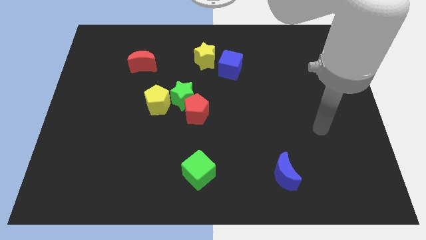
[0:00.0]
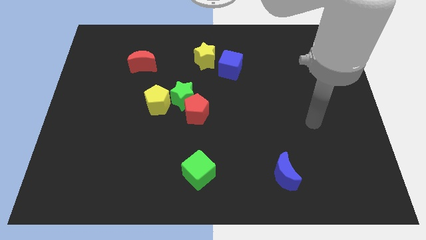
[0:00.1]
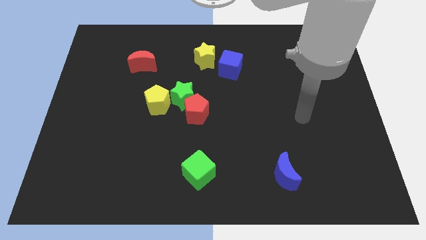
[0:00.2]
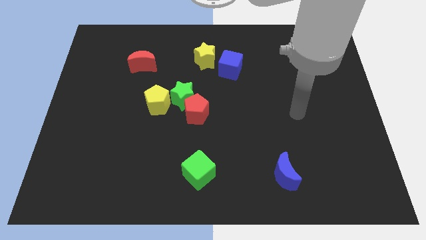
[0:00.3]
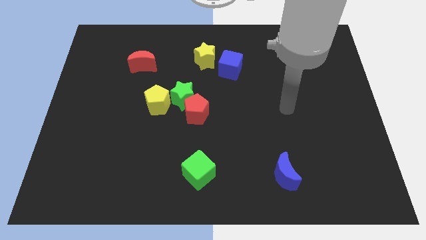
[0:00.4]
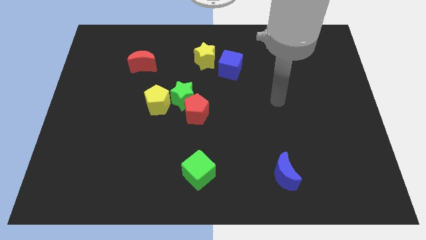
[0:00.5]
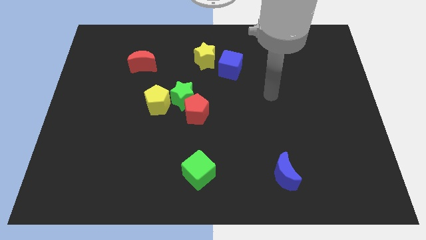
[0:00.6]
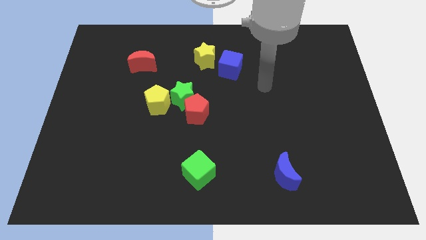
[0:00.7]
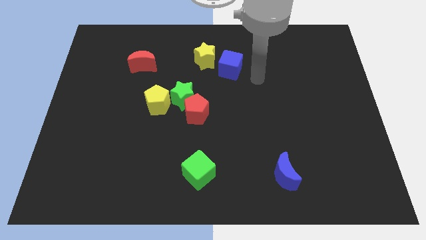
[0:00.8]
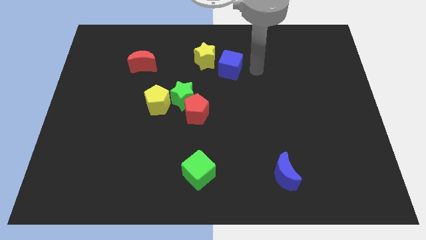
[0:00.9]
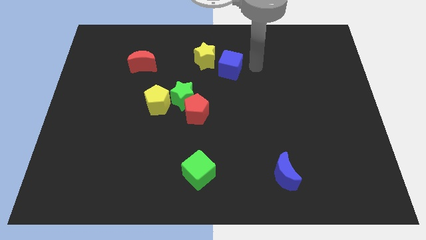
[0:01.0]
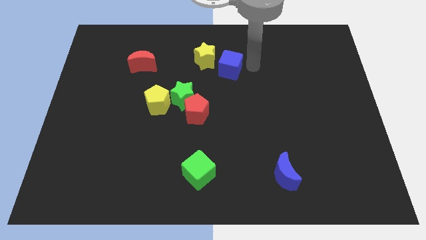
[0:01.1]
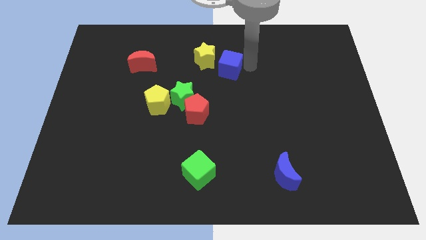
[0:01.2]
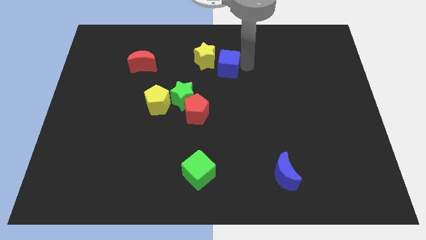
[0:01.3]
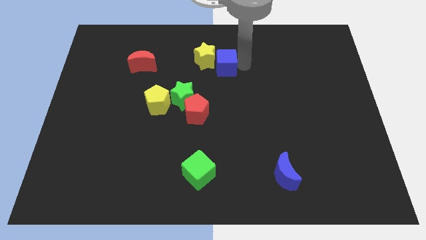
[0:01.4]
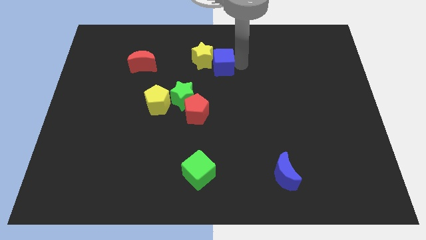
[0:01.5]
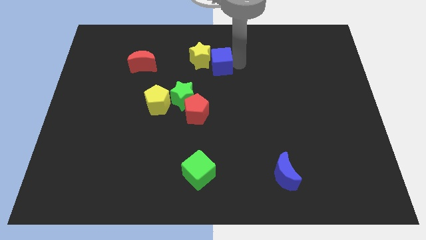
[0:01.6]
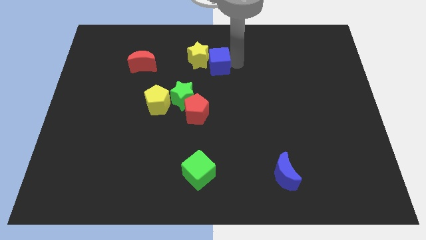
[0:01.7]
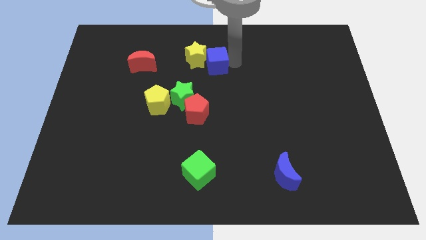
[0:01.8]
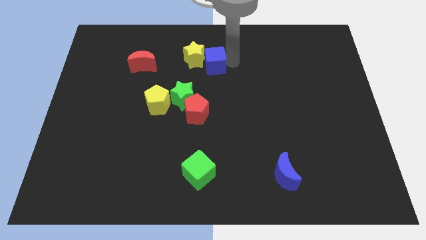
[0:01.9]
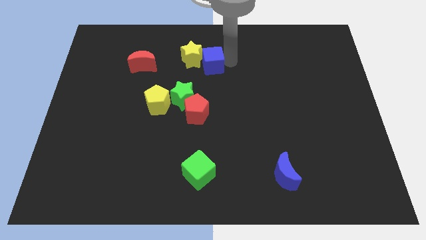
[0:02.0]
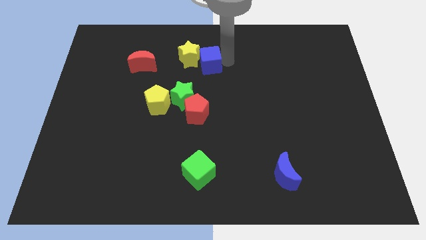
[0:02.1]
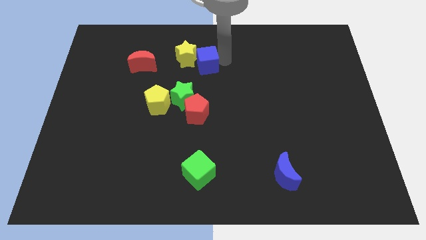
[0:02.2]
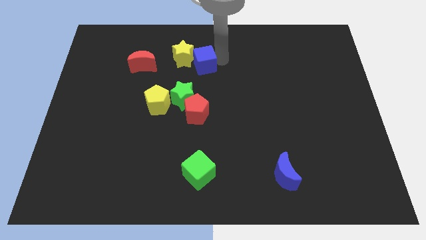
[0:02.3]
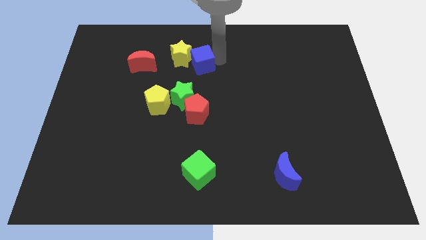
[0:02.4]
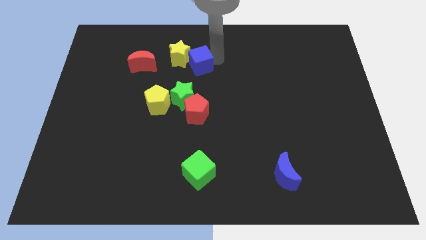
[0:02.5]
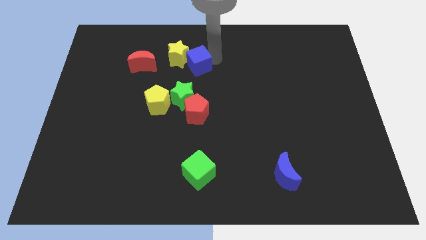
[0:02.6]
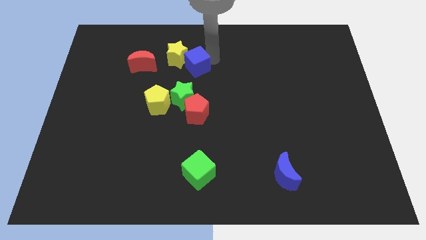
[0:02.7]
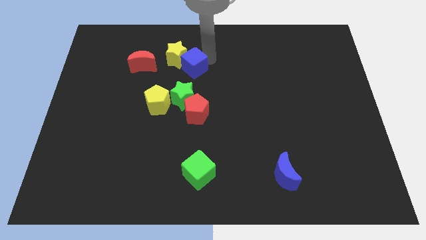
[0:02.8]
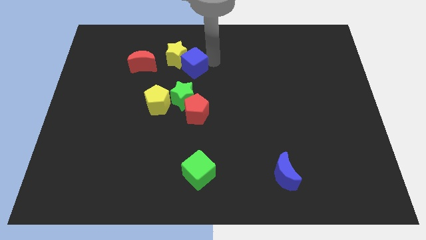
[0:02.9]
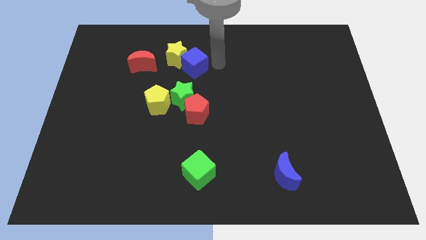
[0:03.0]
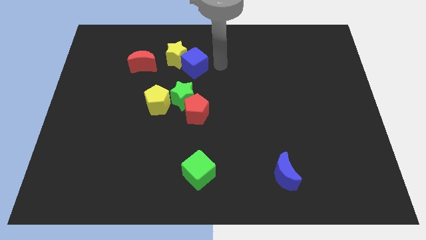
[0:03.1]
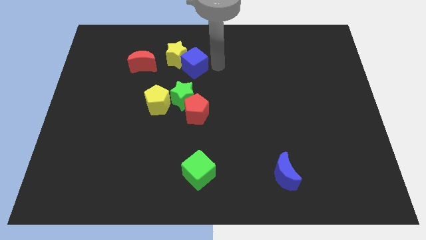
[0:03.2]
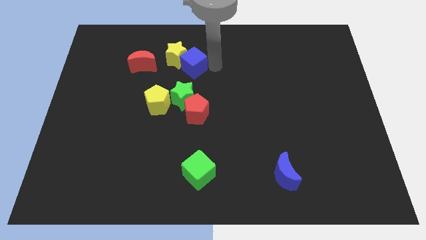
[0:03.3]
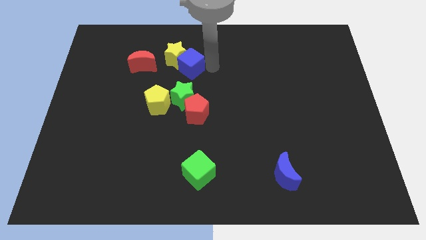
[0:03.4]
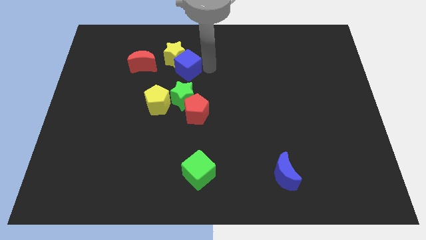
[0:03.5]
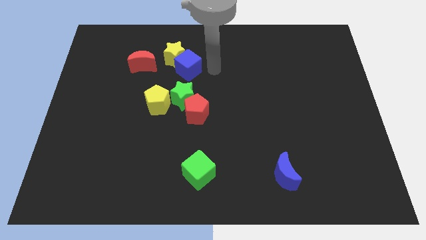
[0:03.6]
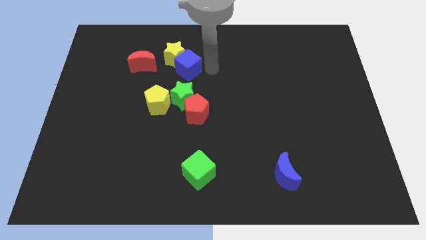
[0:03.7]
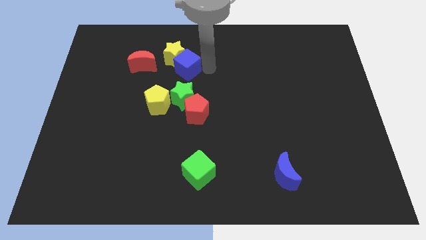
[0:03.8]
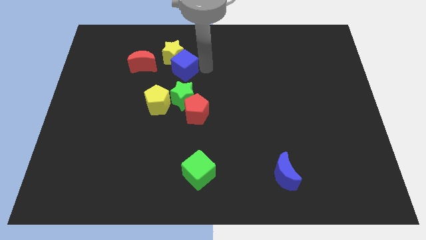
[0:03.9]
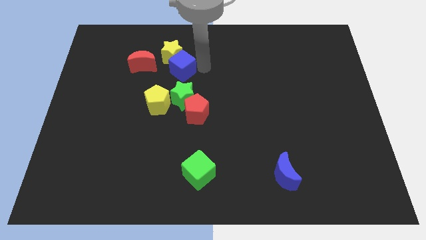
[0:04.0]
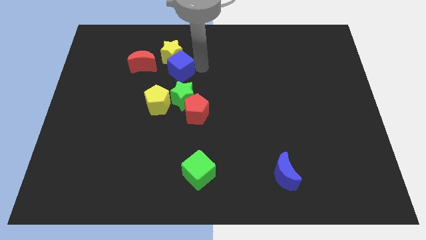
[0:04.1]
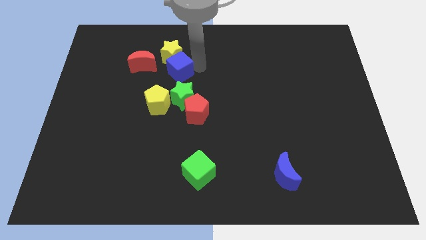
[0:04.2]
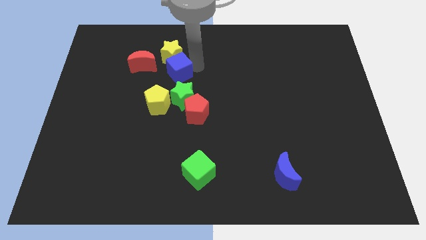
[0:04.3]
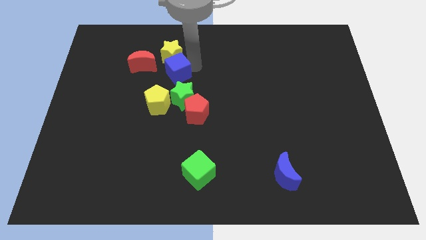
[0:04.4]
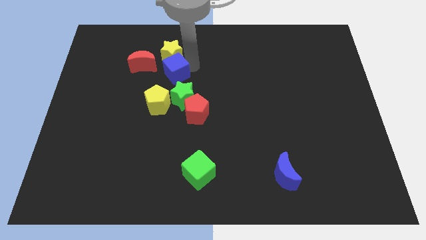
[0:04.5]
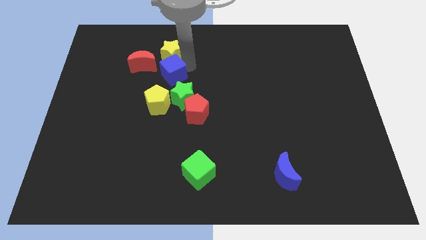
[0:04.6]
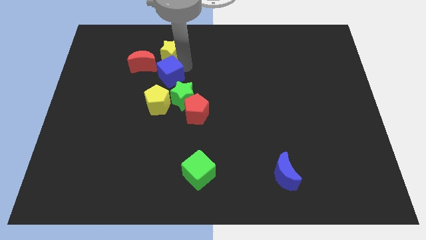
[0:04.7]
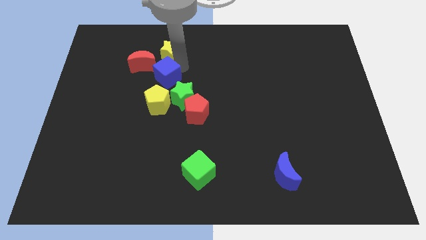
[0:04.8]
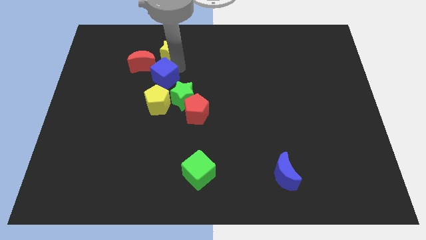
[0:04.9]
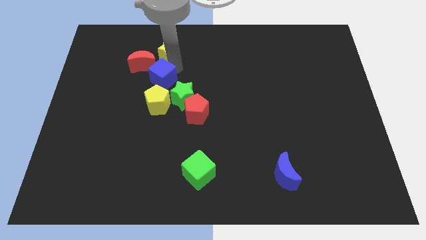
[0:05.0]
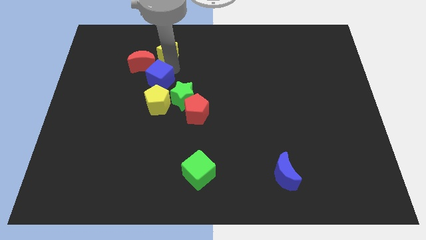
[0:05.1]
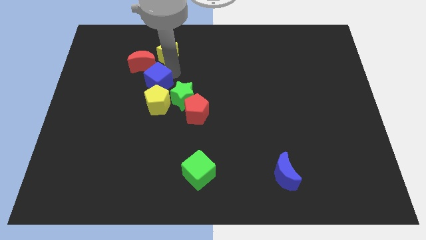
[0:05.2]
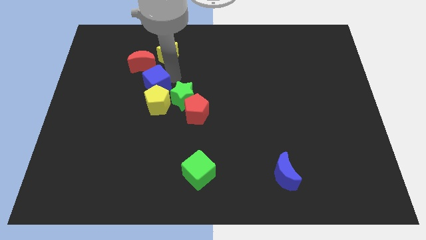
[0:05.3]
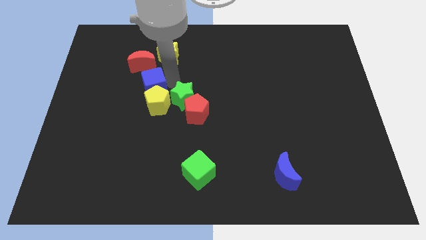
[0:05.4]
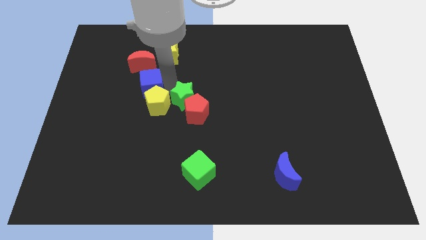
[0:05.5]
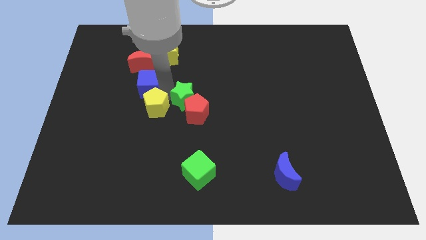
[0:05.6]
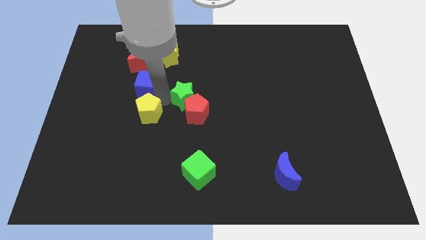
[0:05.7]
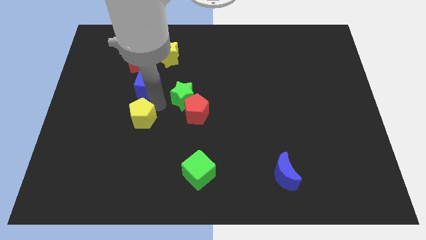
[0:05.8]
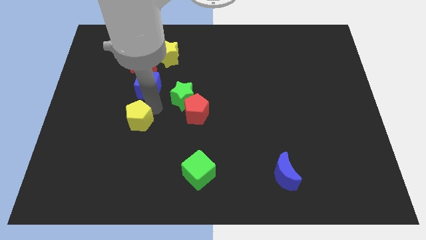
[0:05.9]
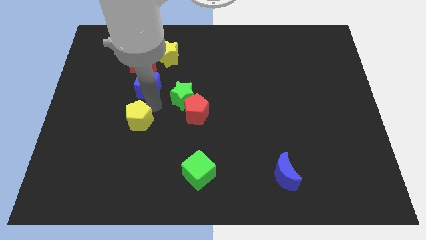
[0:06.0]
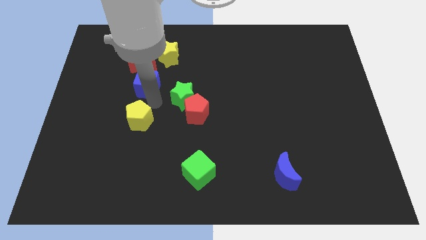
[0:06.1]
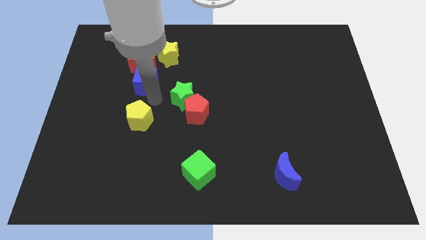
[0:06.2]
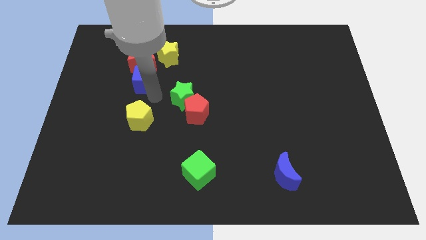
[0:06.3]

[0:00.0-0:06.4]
slide the blue cube next to the red moon

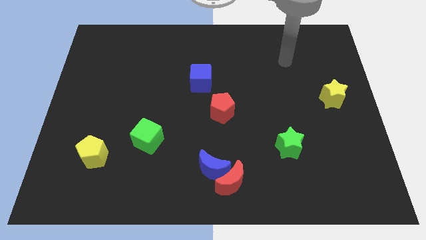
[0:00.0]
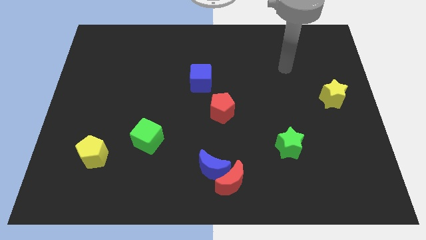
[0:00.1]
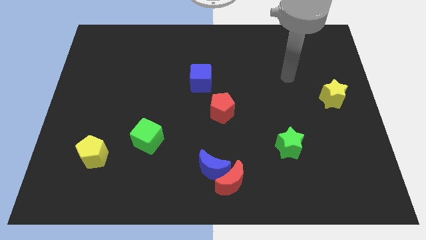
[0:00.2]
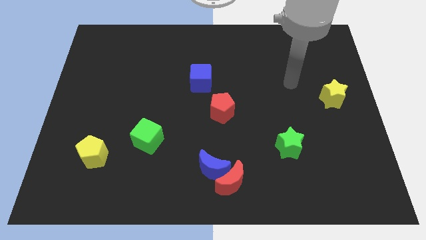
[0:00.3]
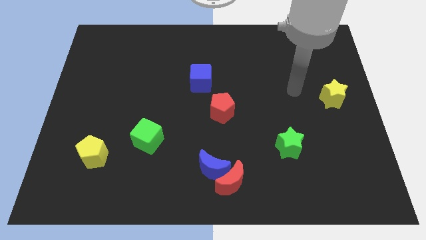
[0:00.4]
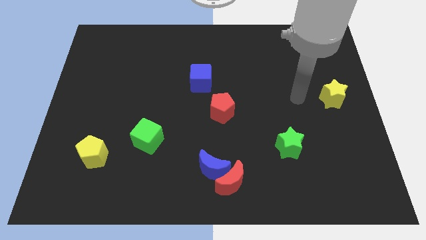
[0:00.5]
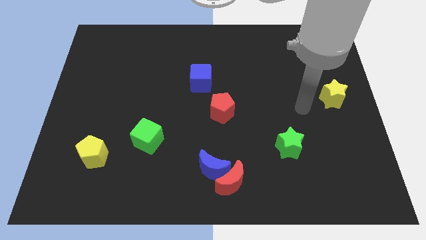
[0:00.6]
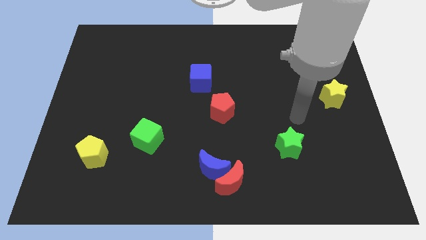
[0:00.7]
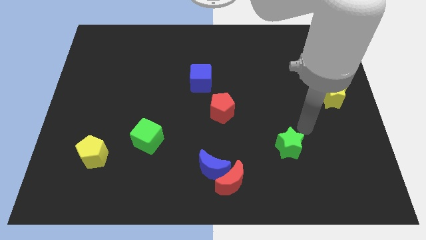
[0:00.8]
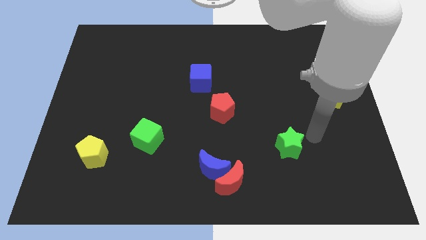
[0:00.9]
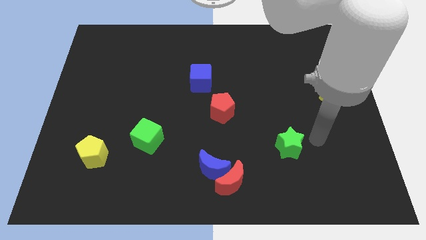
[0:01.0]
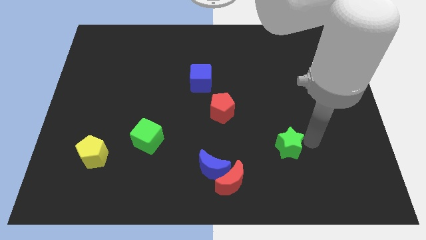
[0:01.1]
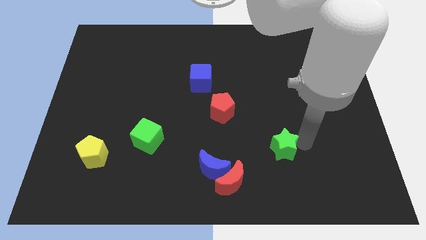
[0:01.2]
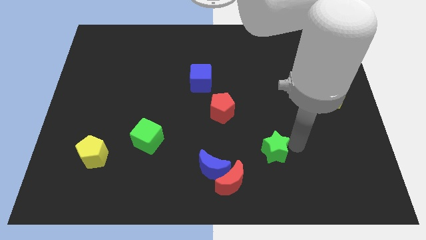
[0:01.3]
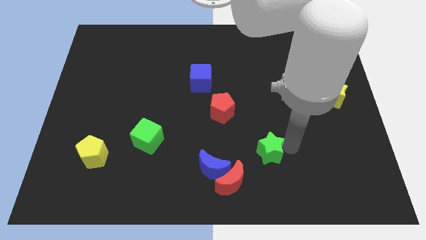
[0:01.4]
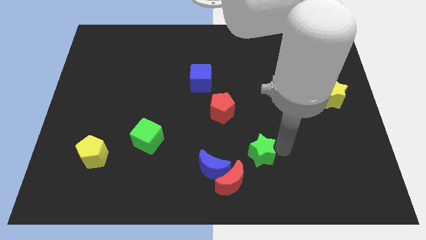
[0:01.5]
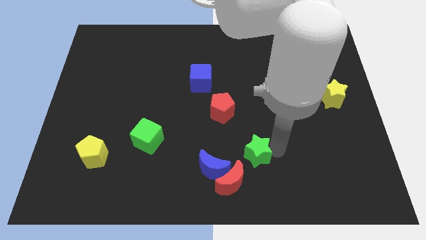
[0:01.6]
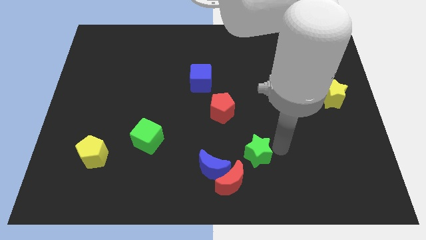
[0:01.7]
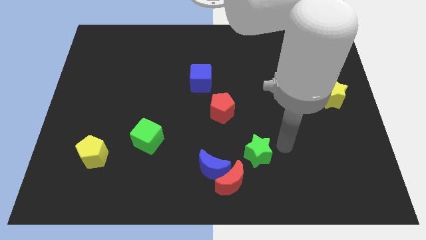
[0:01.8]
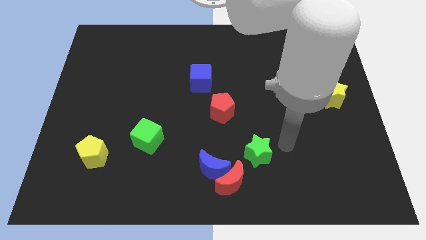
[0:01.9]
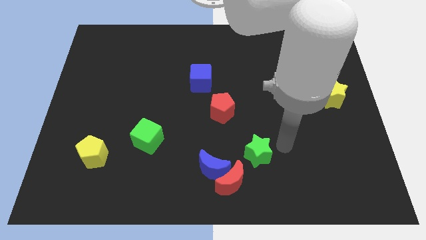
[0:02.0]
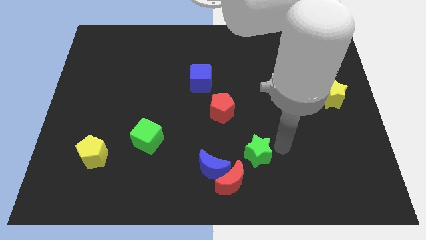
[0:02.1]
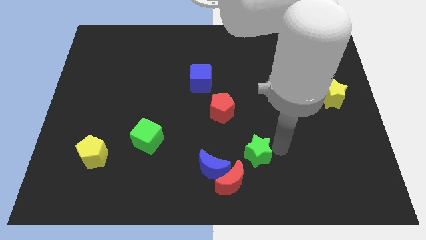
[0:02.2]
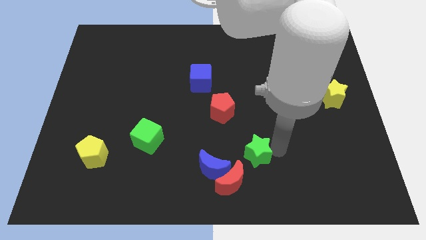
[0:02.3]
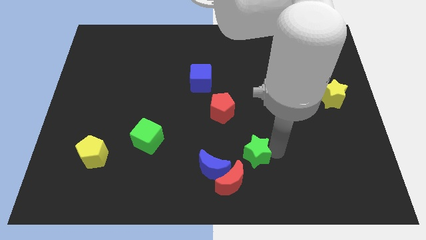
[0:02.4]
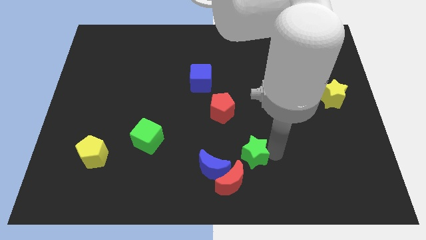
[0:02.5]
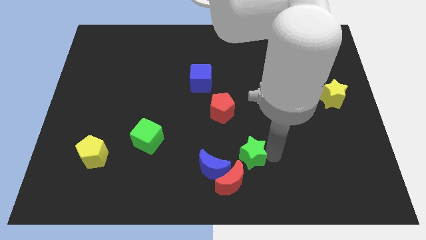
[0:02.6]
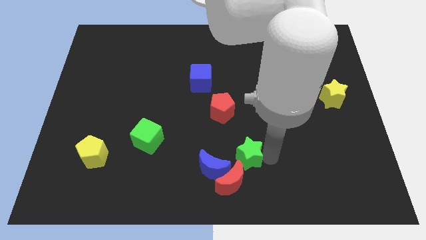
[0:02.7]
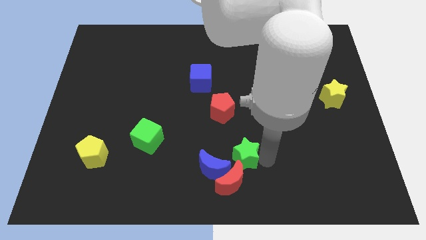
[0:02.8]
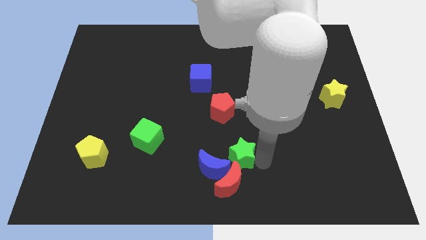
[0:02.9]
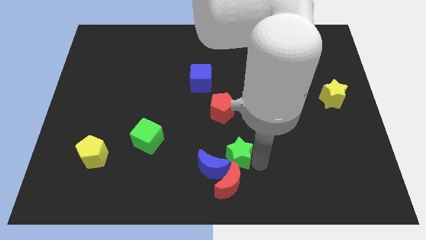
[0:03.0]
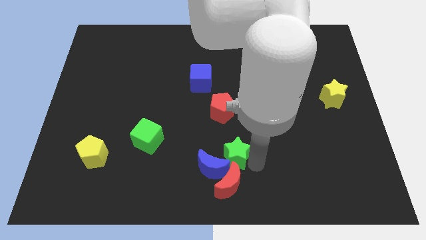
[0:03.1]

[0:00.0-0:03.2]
push the green star towards the blue moon
